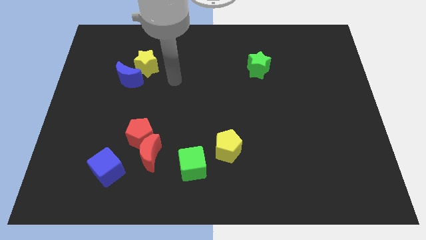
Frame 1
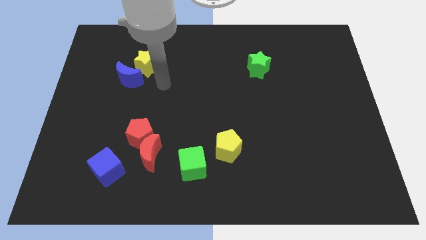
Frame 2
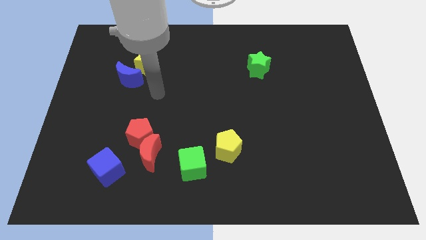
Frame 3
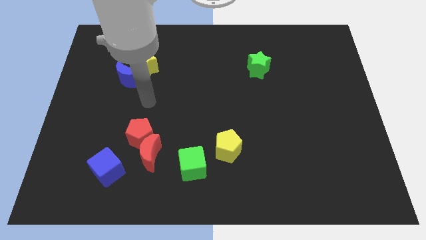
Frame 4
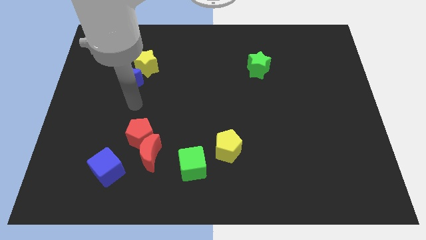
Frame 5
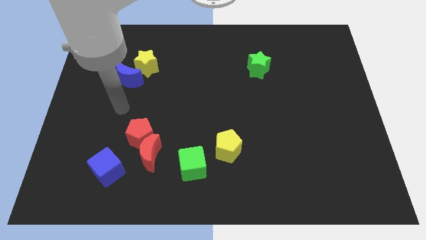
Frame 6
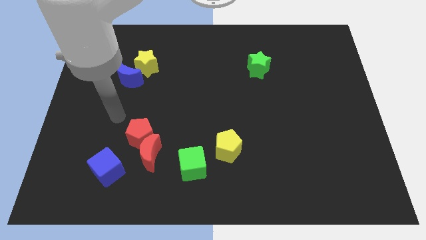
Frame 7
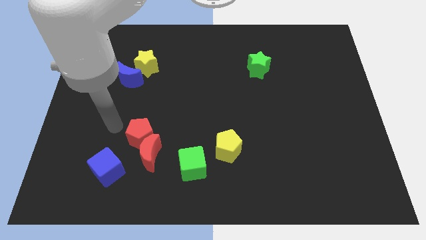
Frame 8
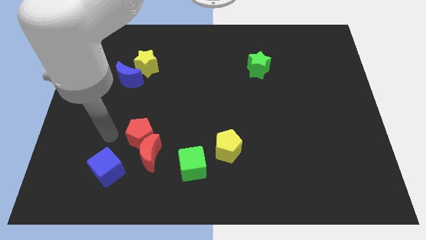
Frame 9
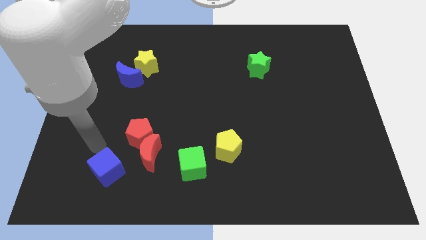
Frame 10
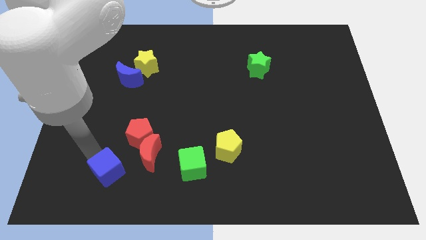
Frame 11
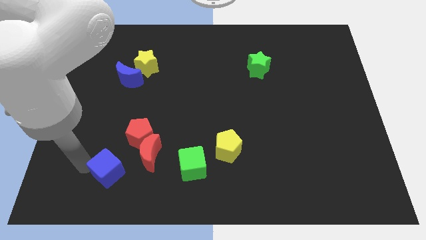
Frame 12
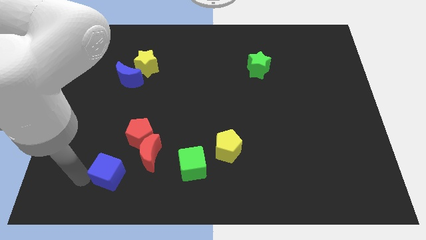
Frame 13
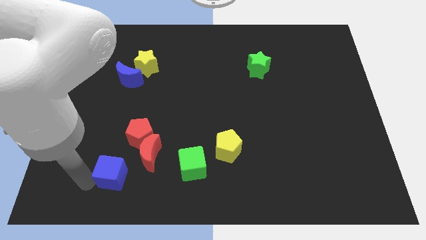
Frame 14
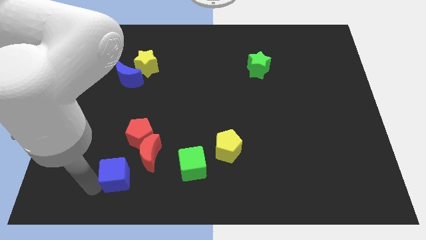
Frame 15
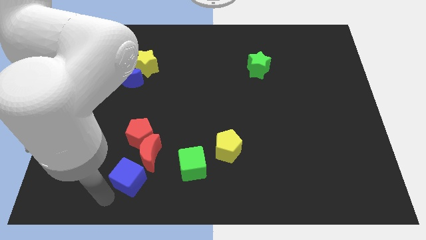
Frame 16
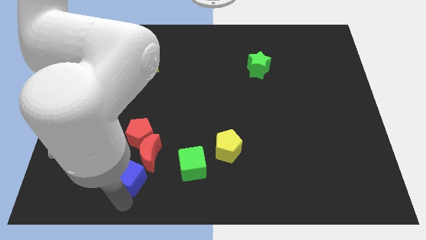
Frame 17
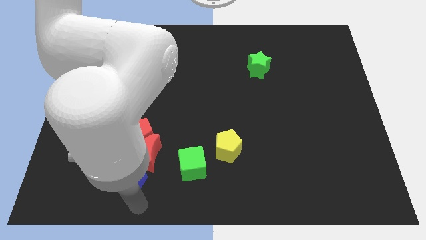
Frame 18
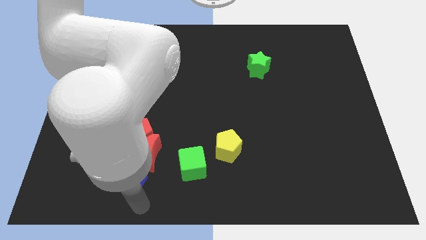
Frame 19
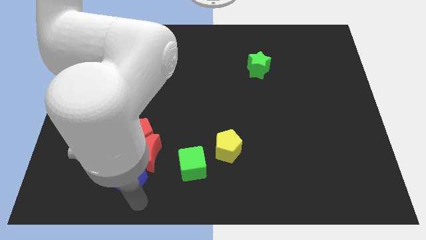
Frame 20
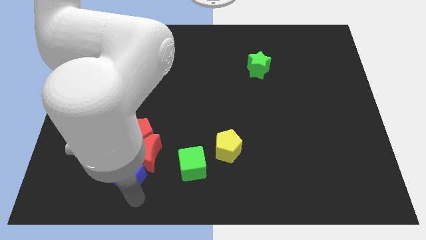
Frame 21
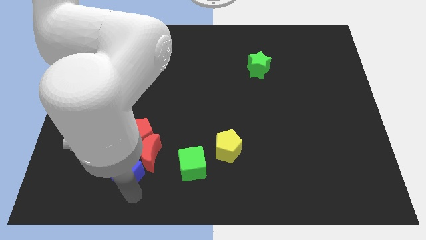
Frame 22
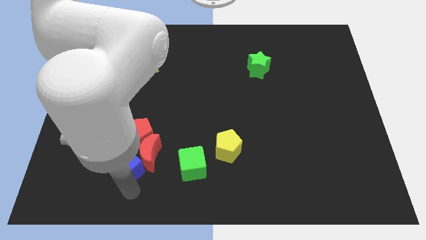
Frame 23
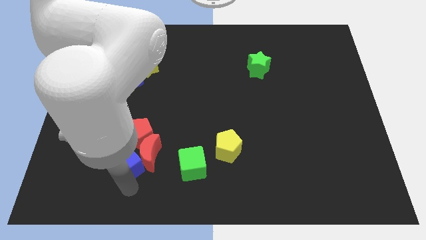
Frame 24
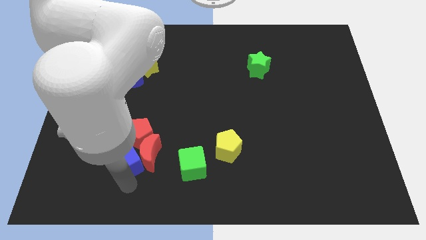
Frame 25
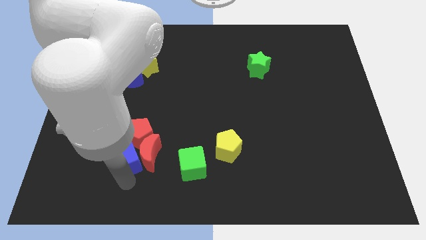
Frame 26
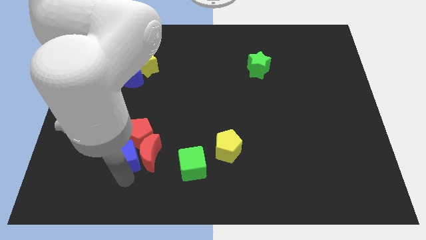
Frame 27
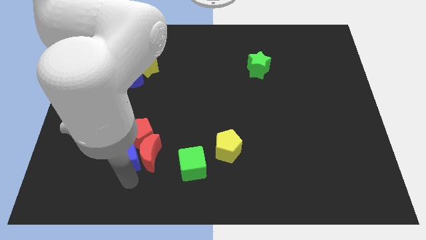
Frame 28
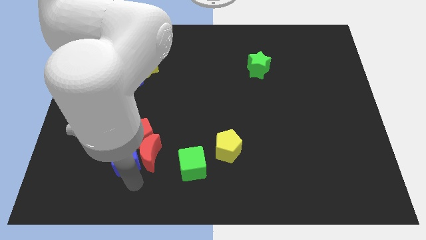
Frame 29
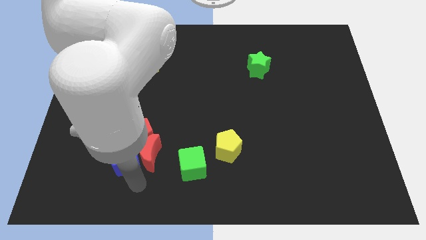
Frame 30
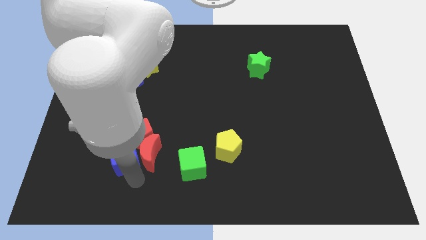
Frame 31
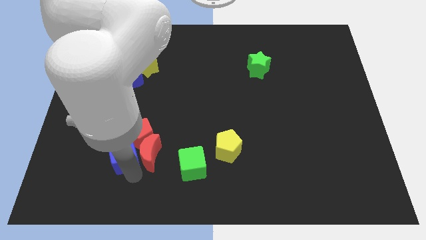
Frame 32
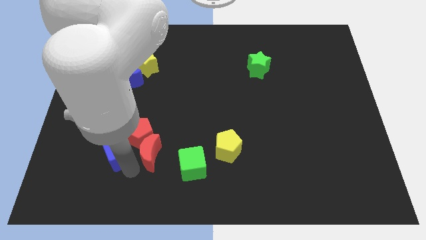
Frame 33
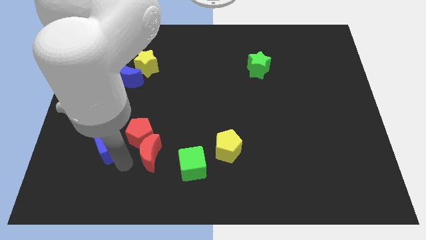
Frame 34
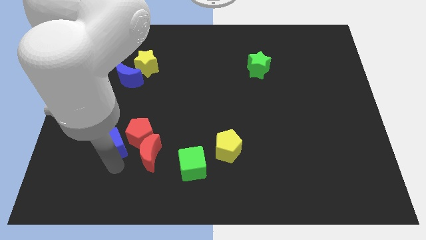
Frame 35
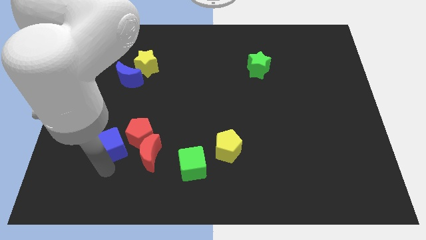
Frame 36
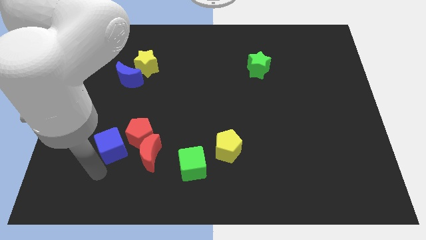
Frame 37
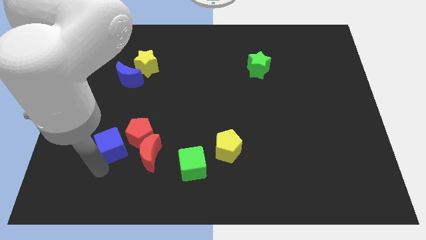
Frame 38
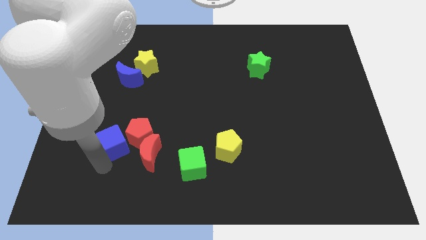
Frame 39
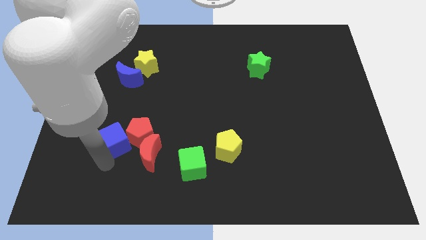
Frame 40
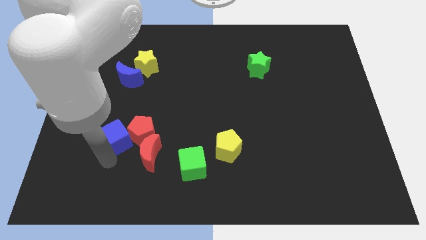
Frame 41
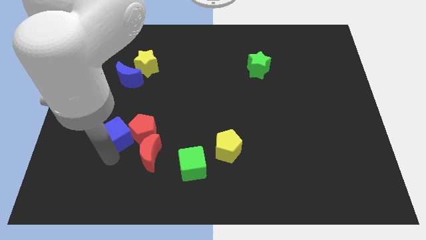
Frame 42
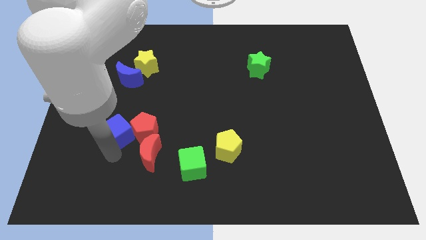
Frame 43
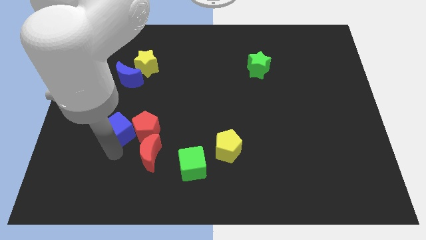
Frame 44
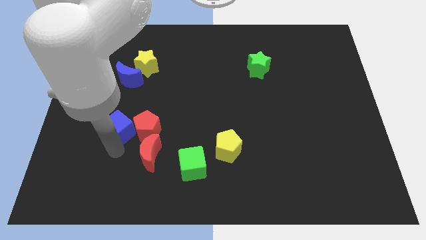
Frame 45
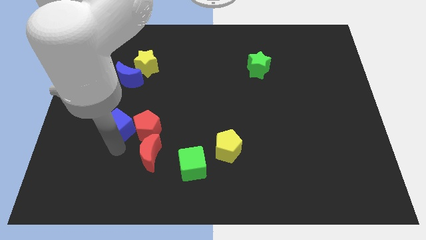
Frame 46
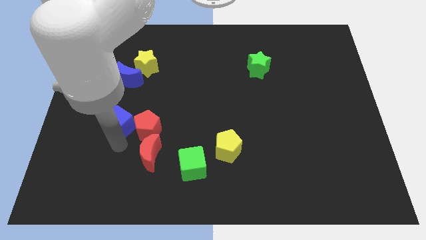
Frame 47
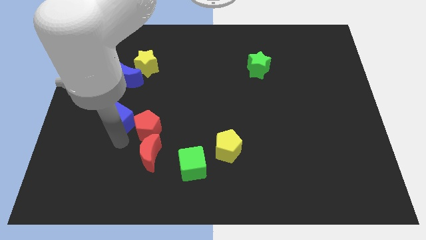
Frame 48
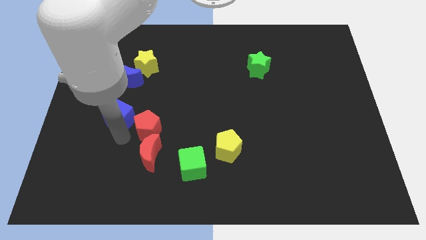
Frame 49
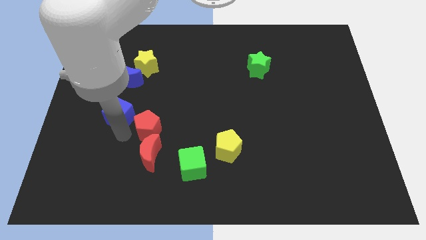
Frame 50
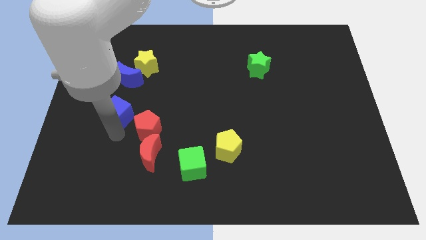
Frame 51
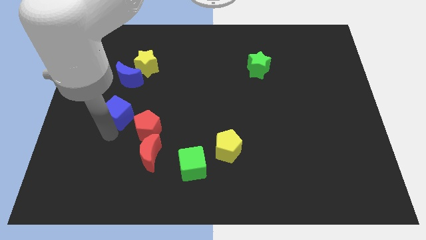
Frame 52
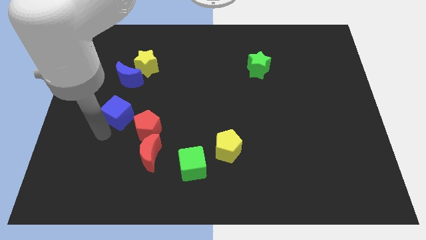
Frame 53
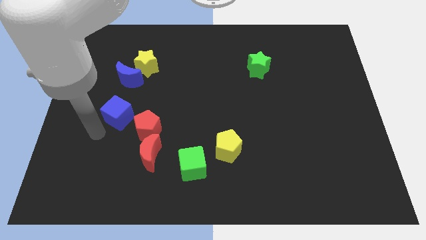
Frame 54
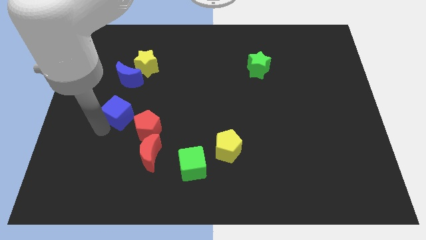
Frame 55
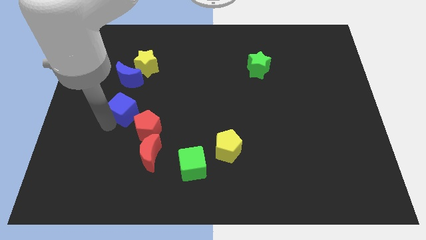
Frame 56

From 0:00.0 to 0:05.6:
slide the blue cube to the bottom side of the yellow star

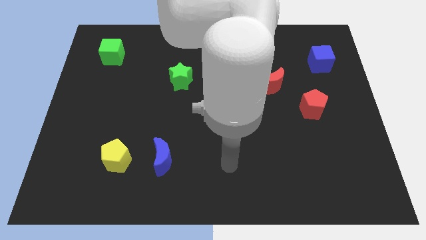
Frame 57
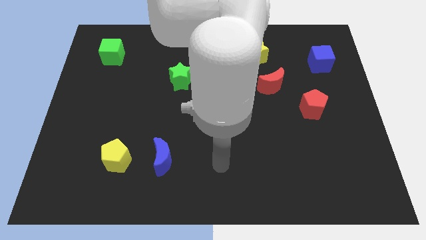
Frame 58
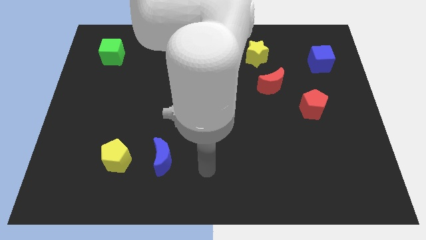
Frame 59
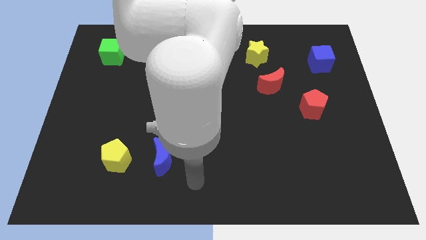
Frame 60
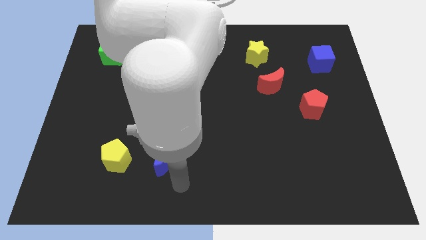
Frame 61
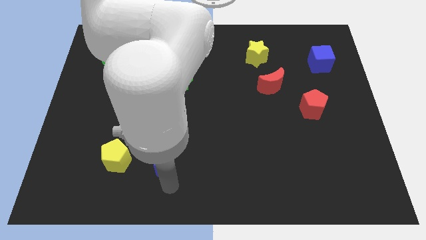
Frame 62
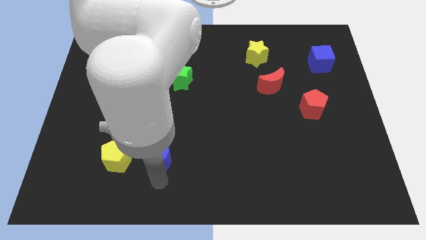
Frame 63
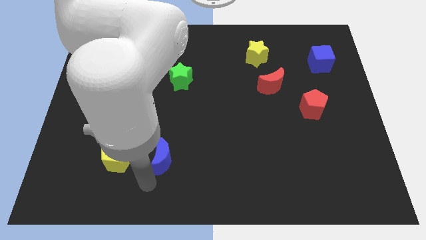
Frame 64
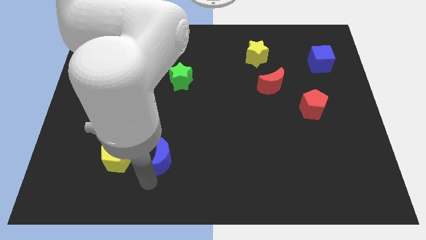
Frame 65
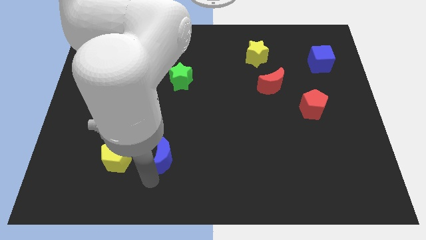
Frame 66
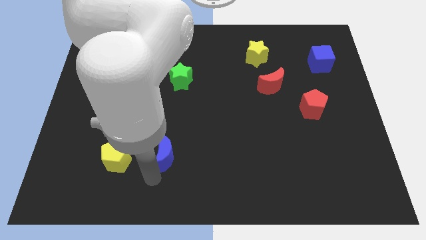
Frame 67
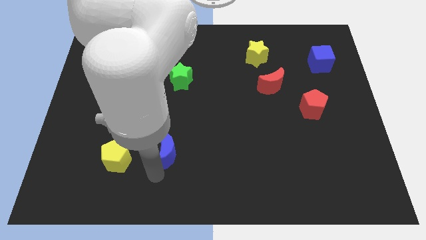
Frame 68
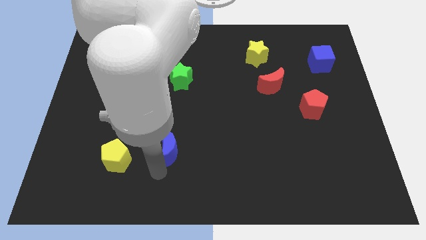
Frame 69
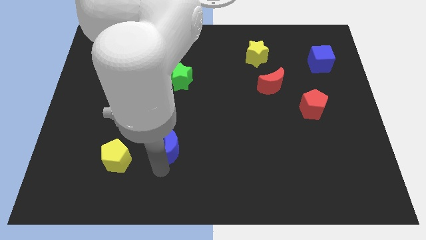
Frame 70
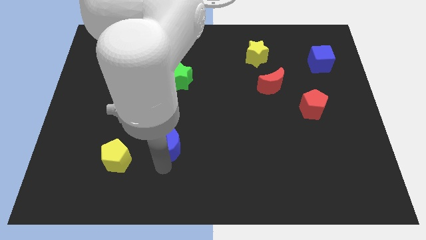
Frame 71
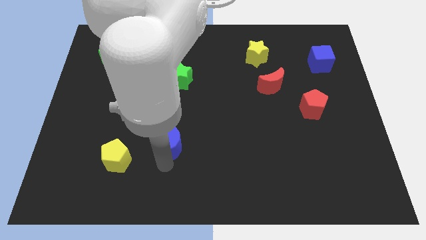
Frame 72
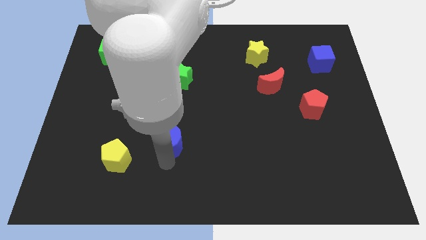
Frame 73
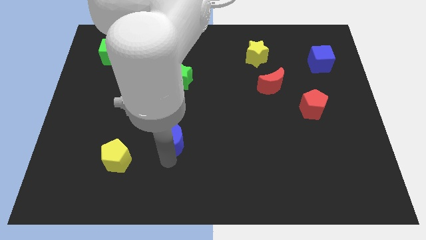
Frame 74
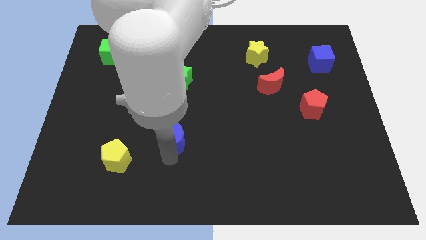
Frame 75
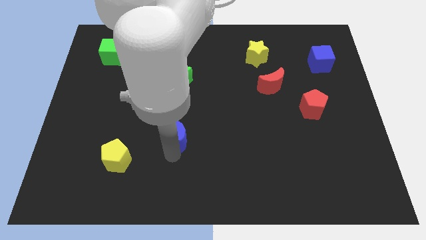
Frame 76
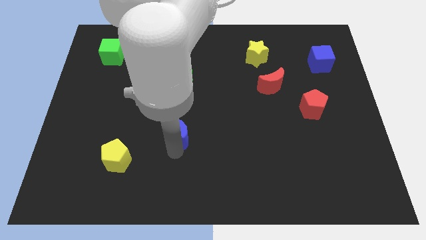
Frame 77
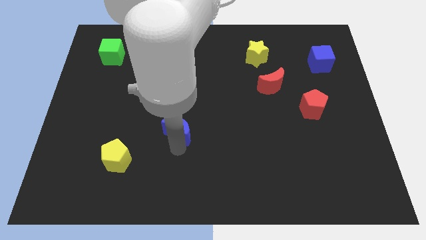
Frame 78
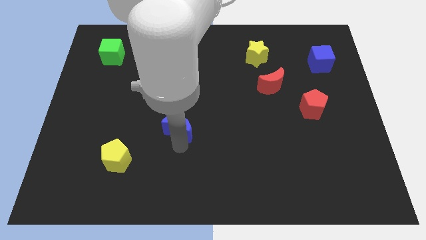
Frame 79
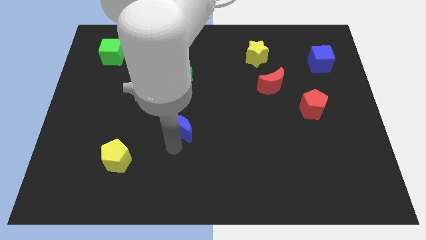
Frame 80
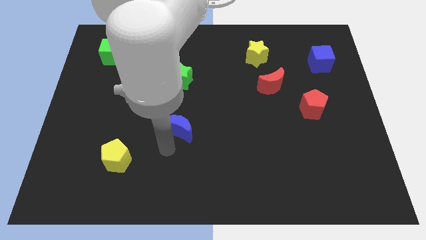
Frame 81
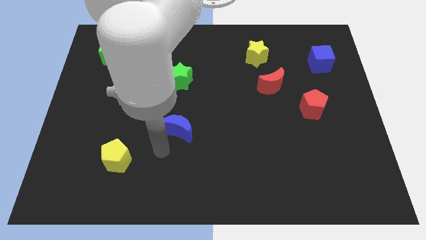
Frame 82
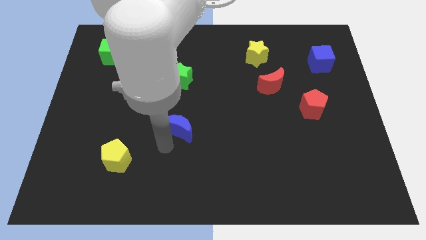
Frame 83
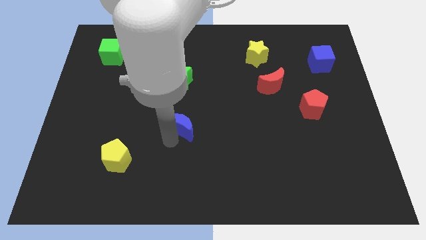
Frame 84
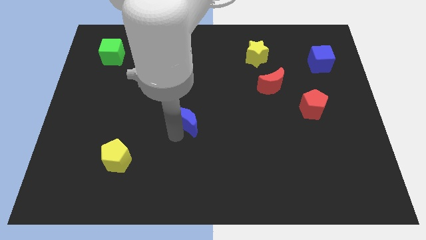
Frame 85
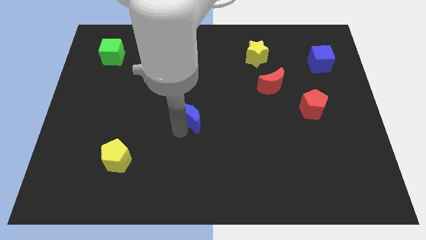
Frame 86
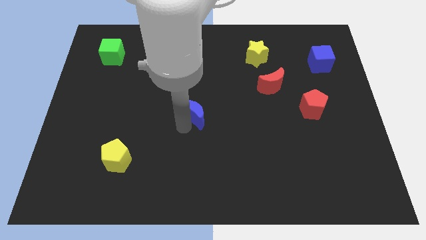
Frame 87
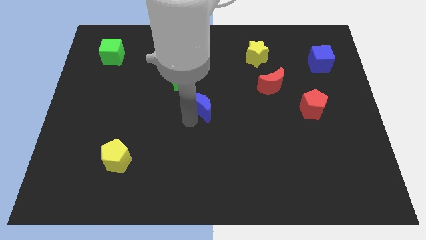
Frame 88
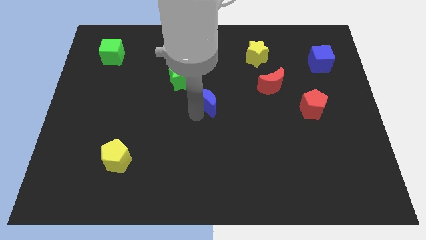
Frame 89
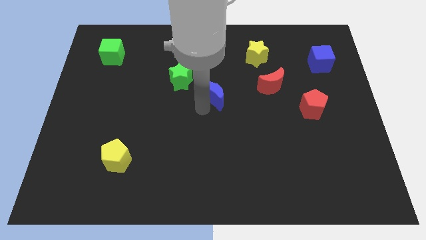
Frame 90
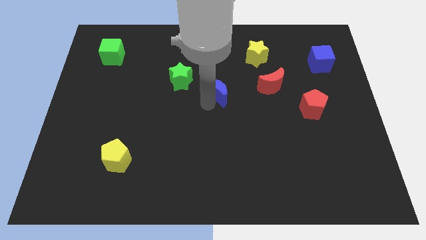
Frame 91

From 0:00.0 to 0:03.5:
push the blue moon to the right side of the green star
